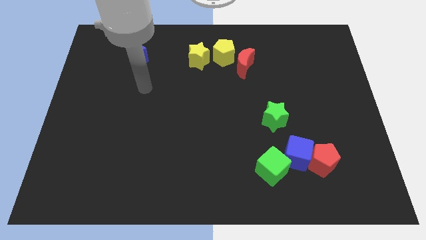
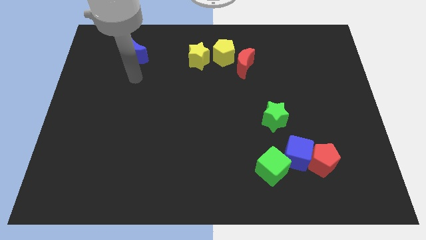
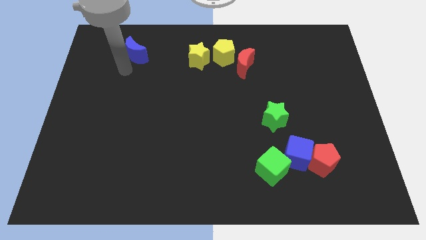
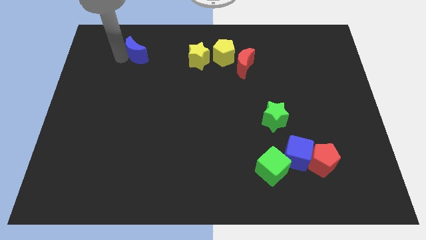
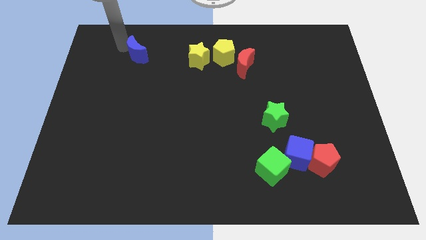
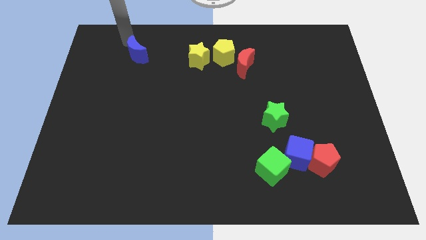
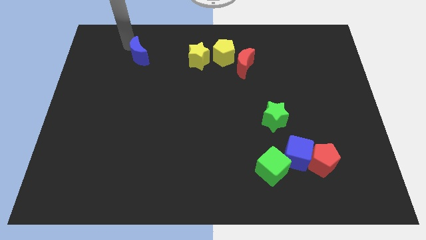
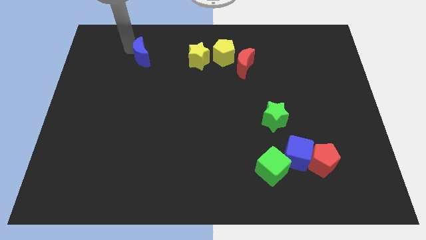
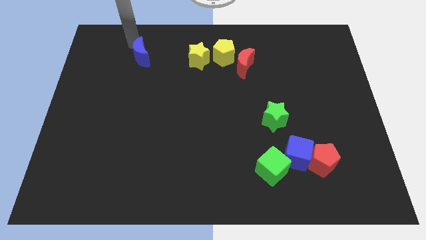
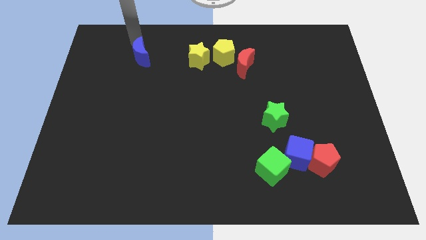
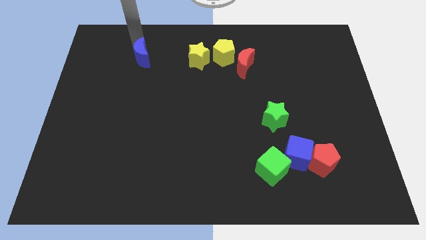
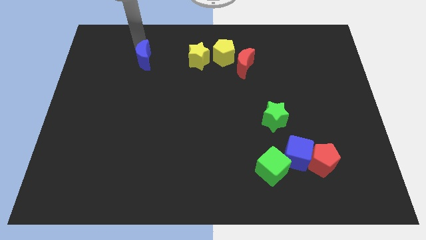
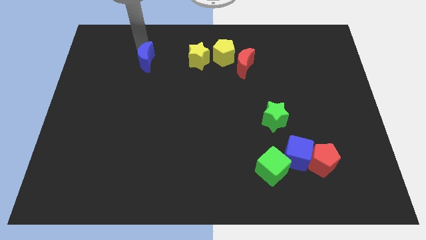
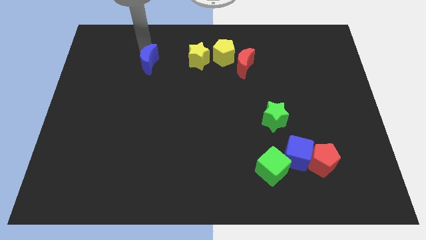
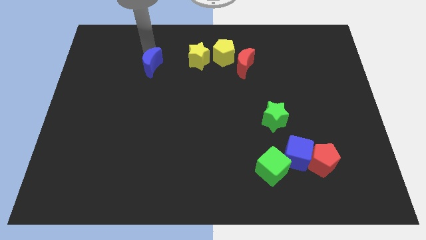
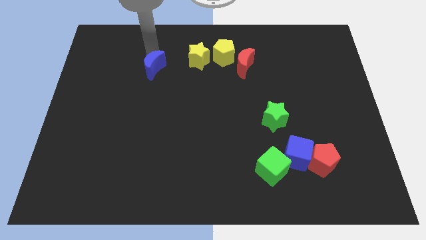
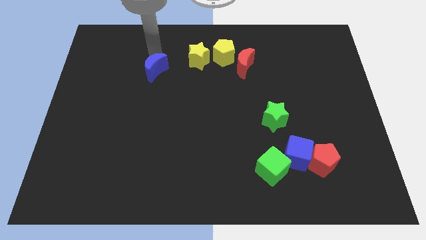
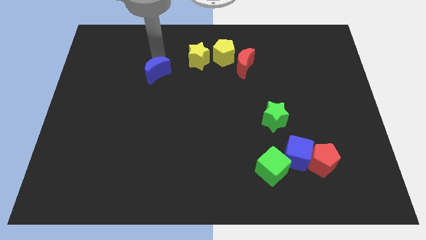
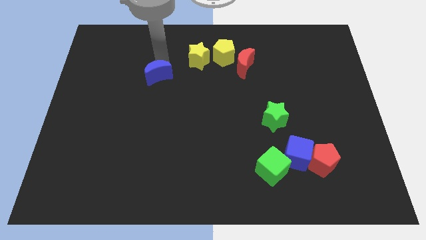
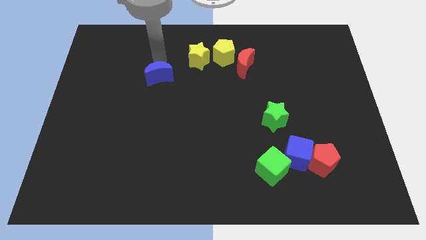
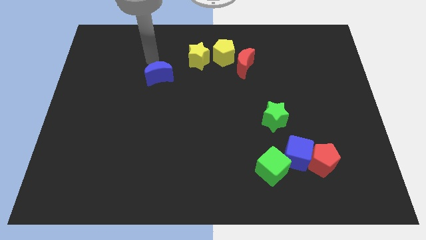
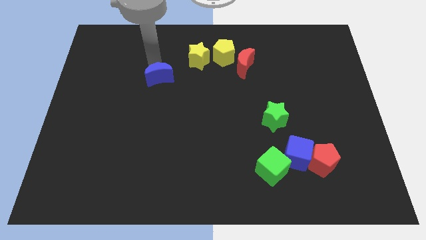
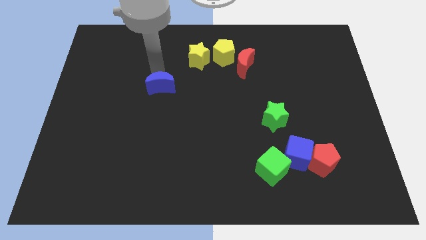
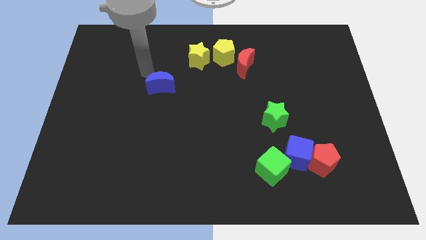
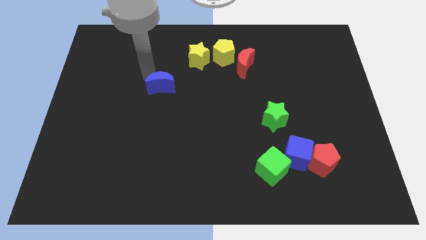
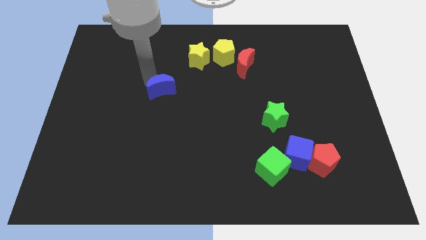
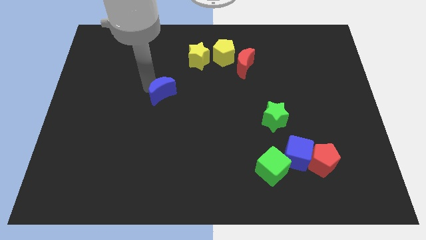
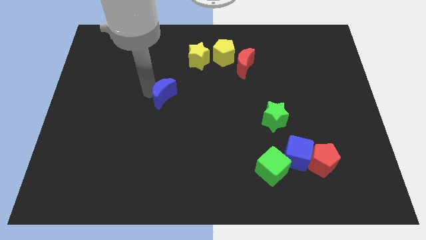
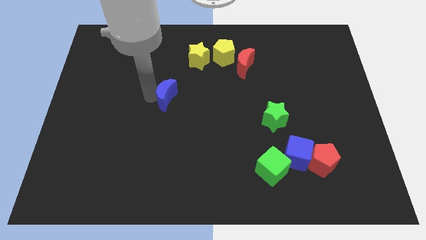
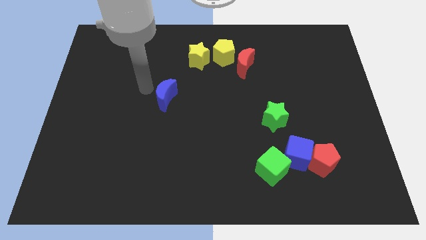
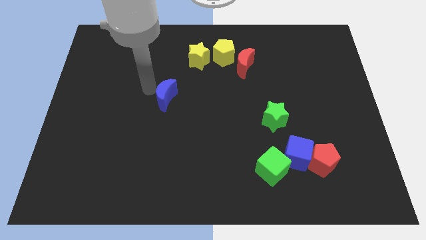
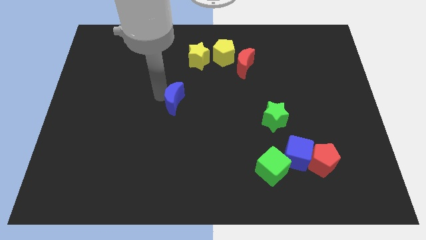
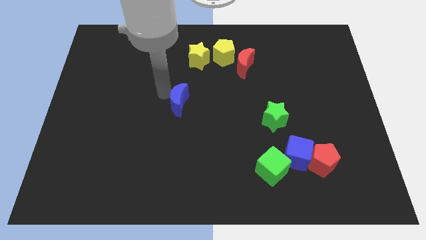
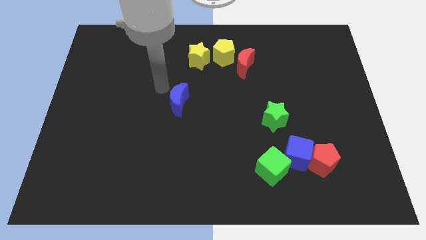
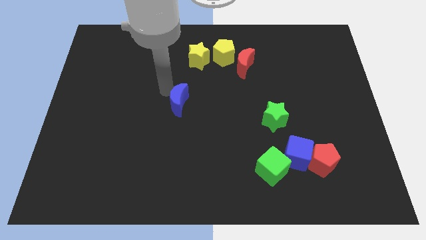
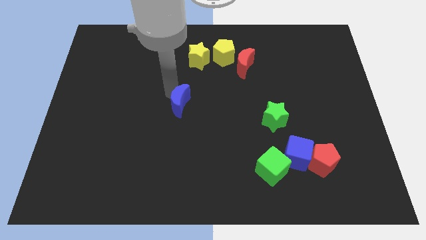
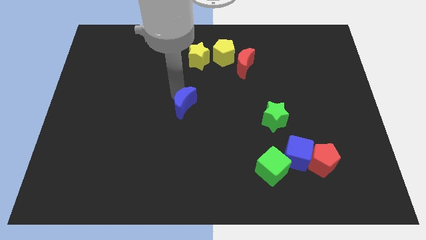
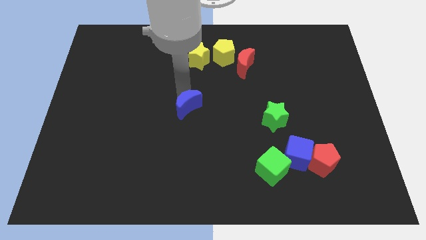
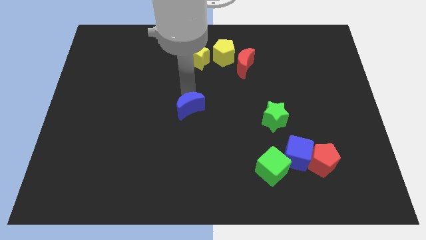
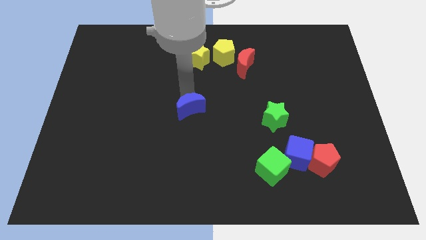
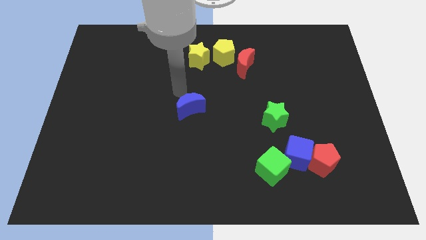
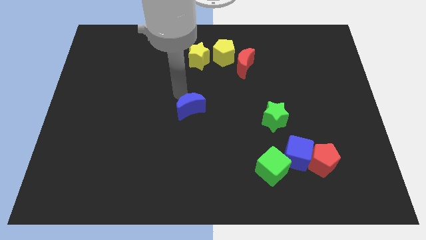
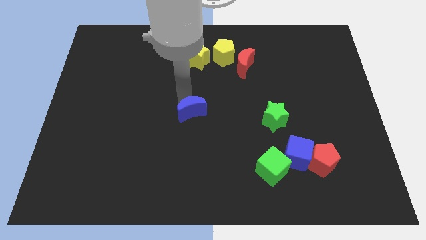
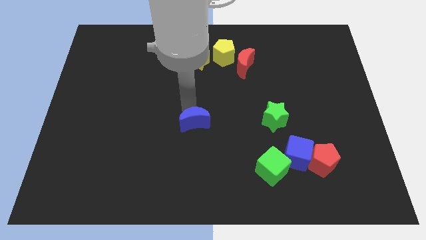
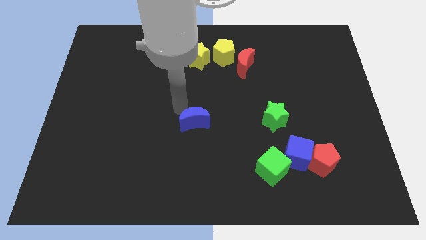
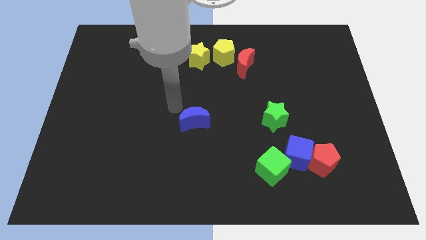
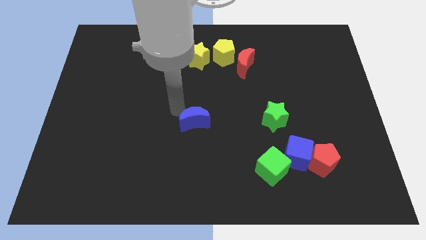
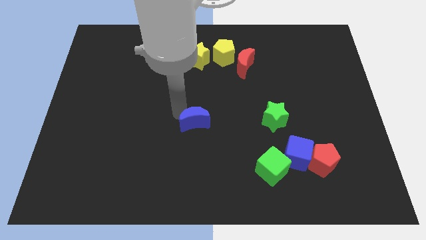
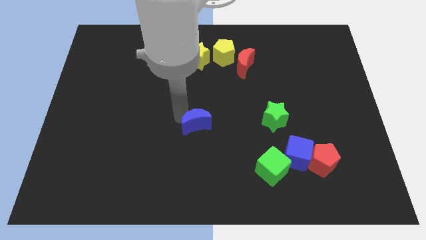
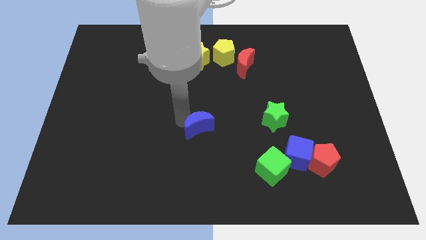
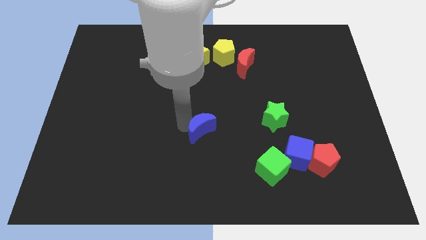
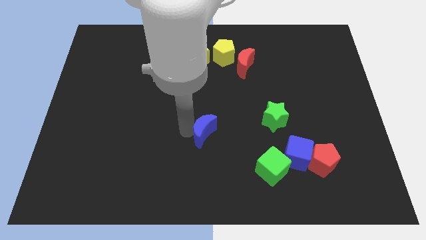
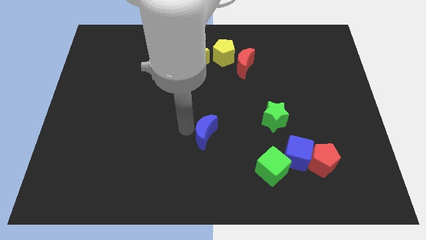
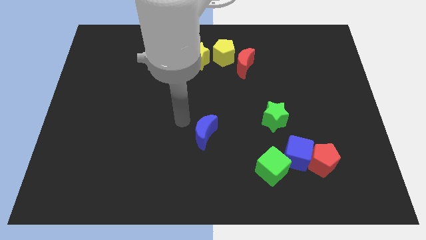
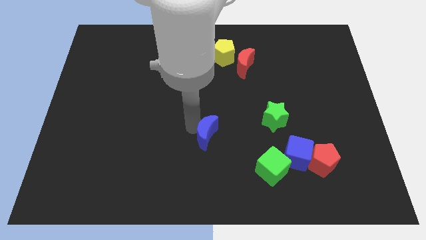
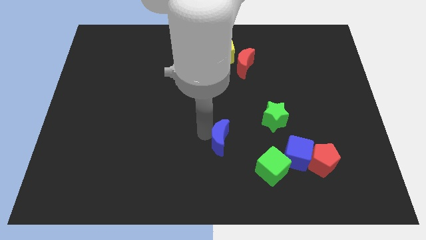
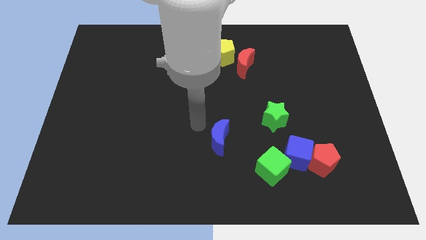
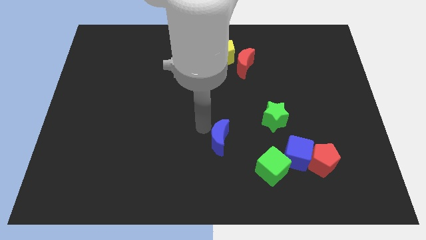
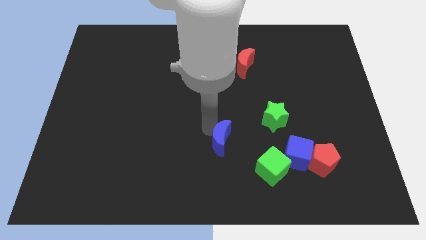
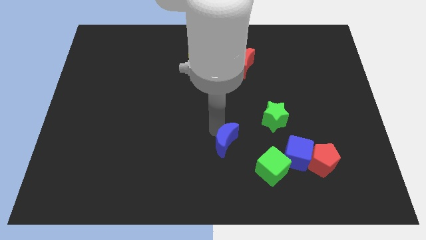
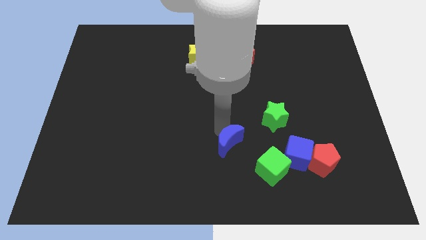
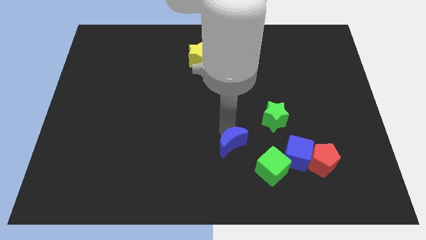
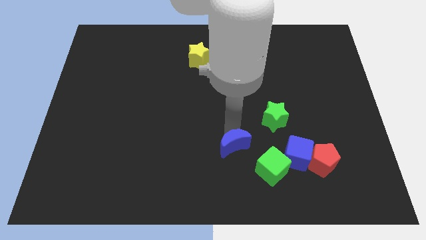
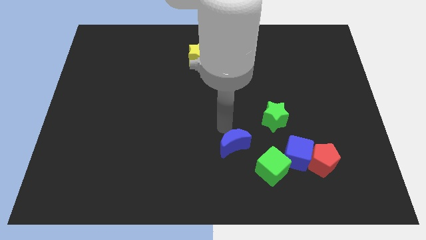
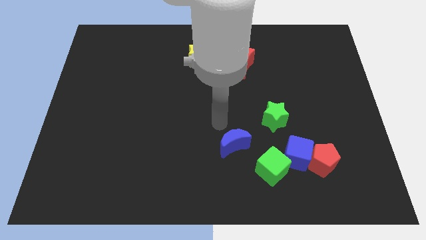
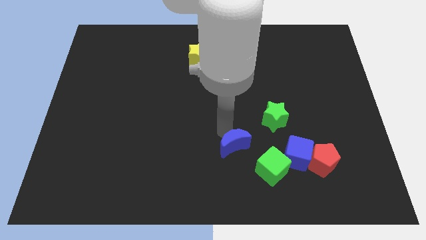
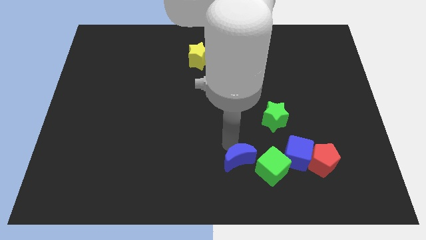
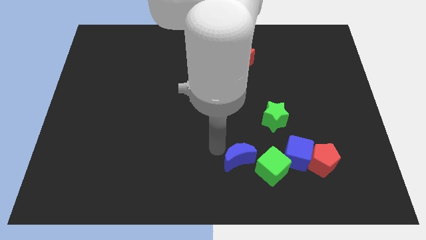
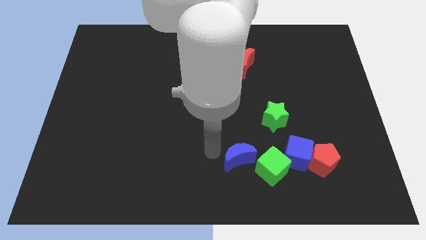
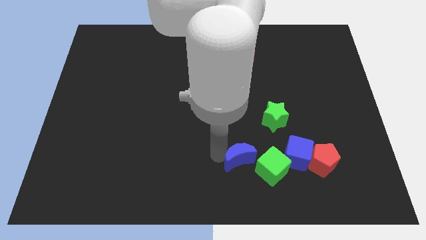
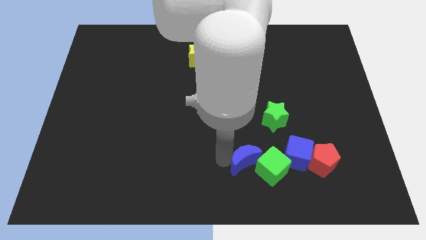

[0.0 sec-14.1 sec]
put the blue moon towards the green cube
